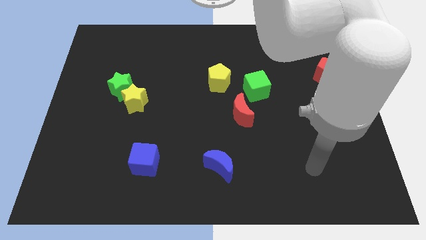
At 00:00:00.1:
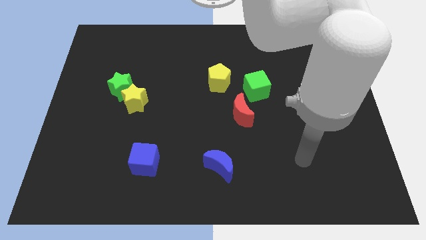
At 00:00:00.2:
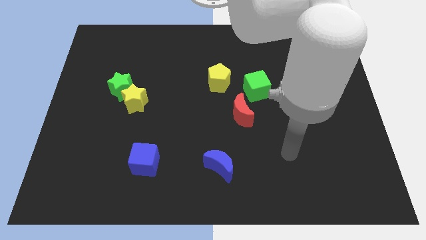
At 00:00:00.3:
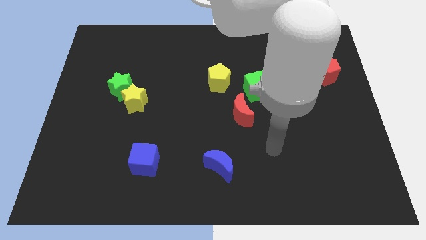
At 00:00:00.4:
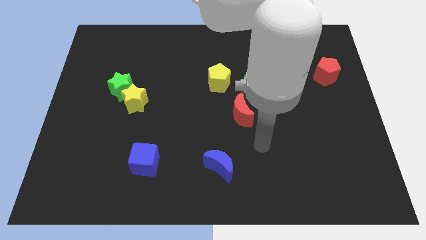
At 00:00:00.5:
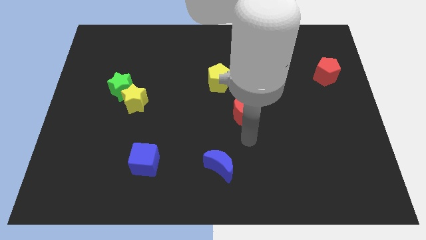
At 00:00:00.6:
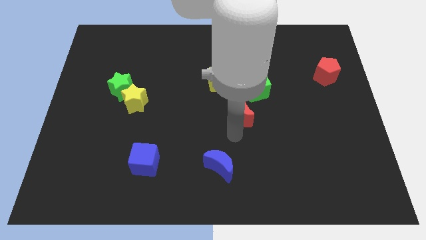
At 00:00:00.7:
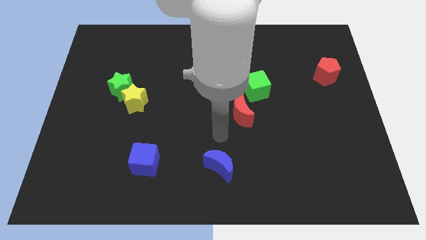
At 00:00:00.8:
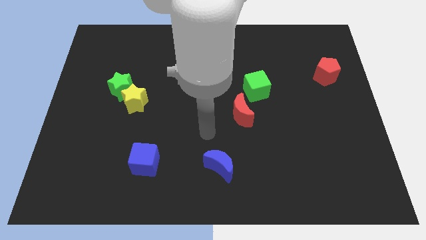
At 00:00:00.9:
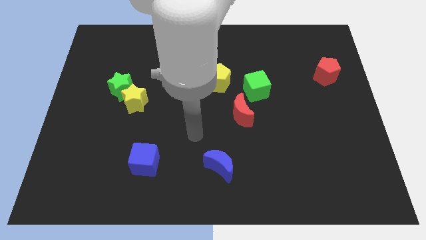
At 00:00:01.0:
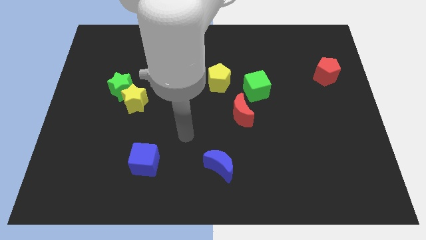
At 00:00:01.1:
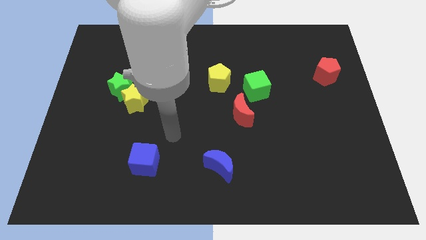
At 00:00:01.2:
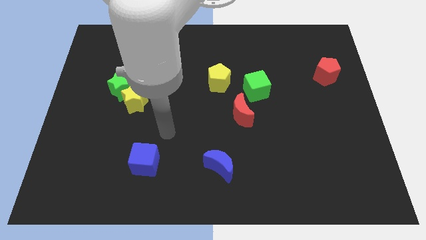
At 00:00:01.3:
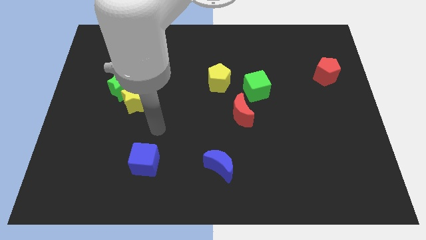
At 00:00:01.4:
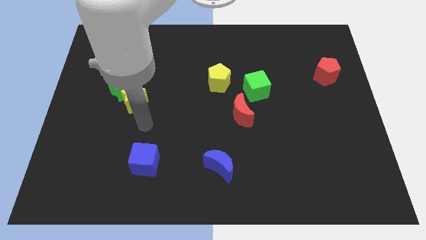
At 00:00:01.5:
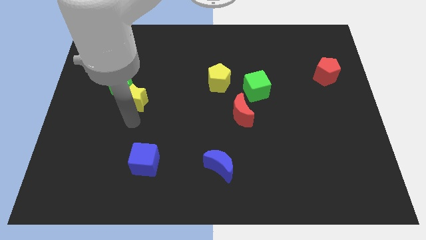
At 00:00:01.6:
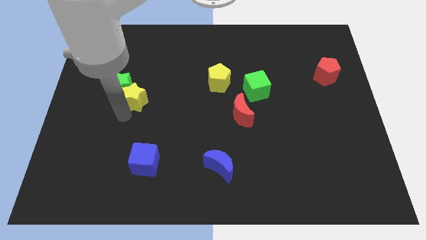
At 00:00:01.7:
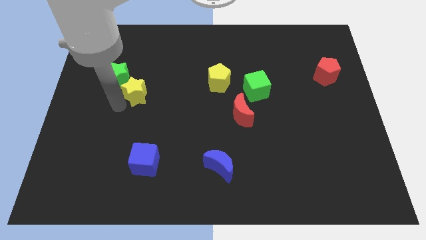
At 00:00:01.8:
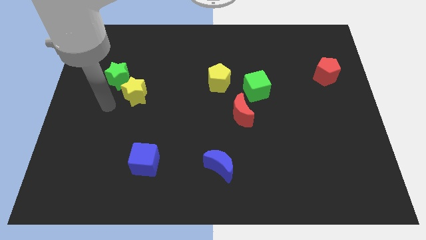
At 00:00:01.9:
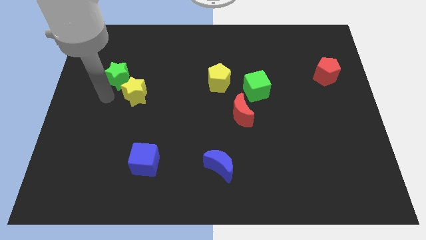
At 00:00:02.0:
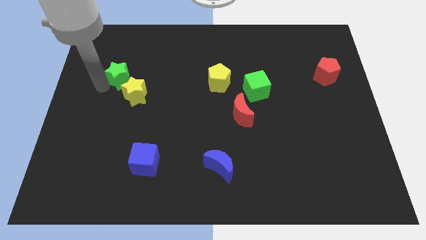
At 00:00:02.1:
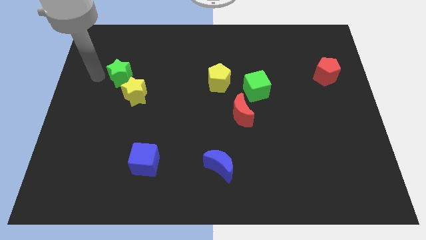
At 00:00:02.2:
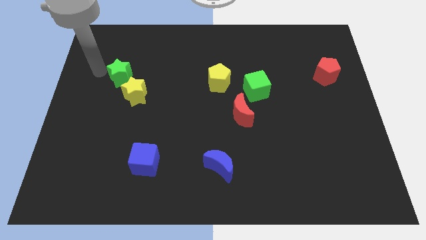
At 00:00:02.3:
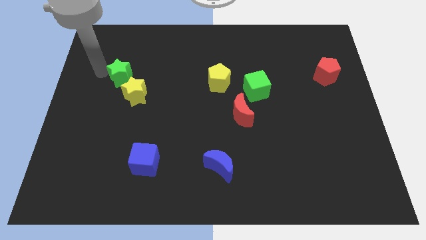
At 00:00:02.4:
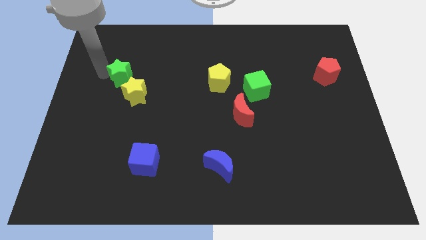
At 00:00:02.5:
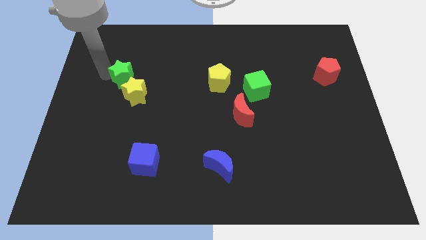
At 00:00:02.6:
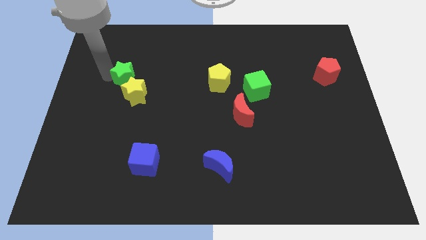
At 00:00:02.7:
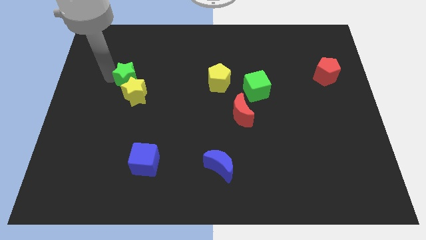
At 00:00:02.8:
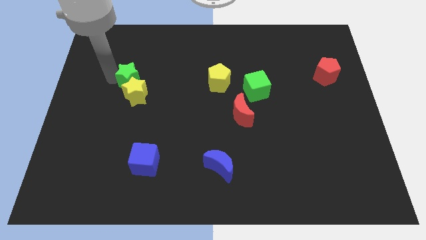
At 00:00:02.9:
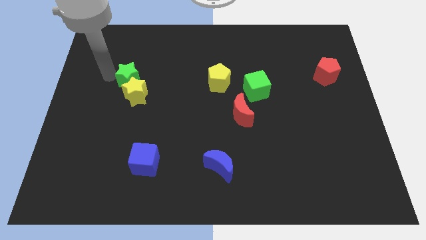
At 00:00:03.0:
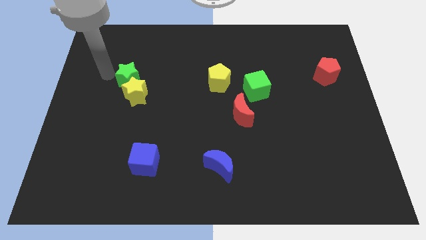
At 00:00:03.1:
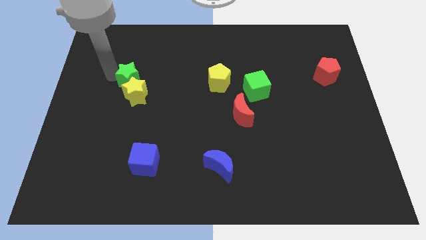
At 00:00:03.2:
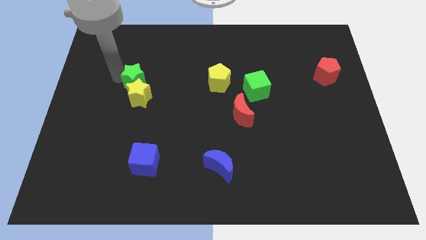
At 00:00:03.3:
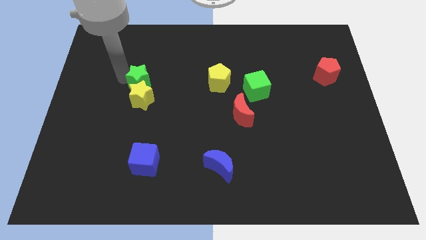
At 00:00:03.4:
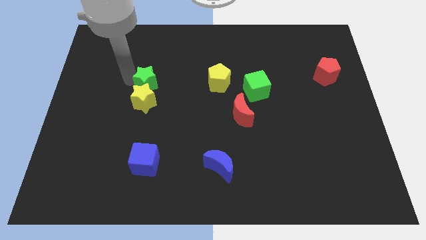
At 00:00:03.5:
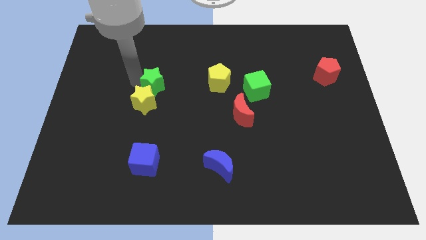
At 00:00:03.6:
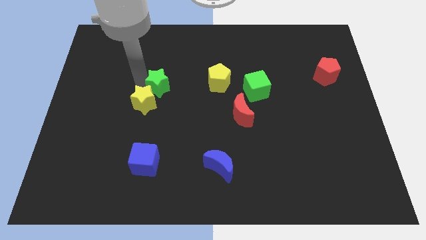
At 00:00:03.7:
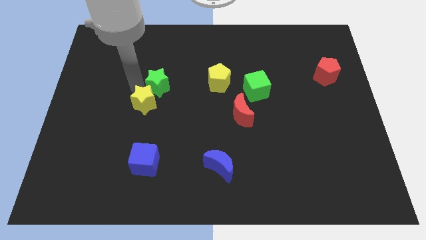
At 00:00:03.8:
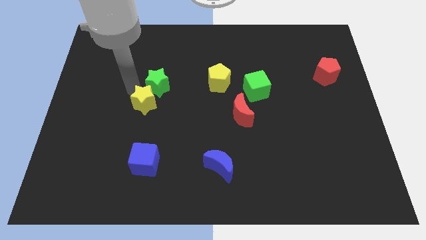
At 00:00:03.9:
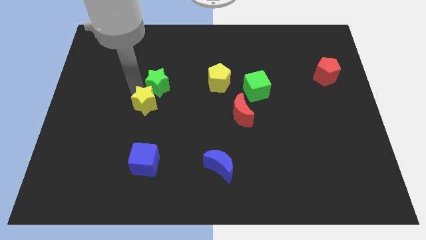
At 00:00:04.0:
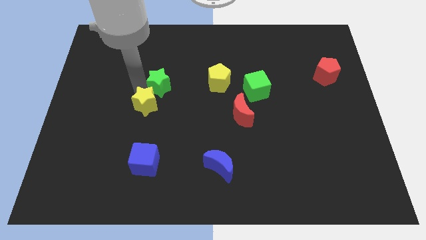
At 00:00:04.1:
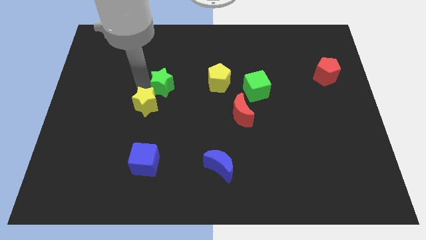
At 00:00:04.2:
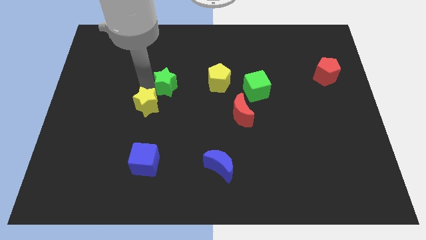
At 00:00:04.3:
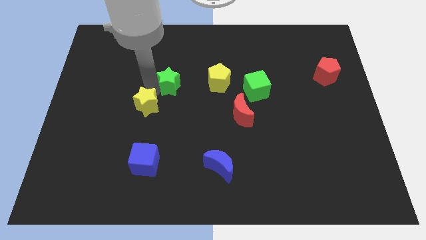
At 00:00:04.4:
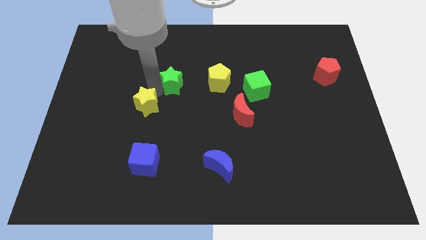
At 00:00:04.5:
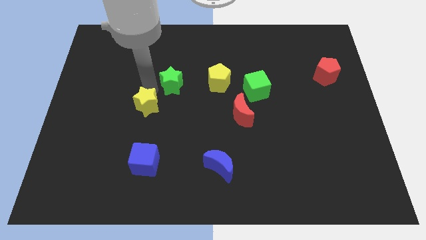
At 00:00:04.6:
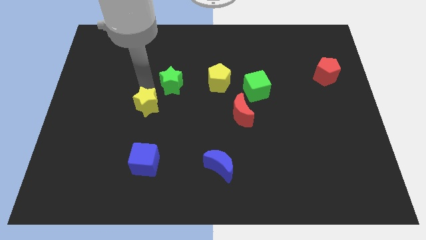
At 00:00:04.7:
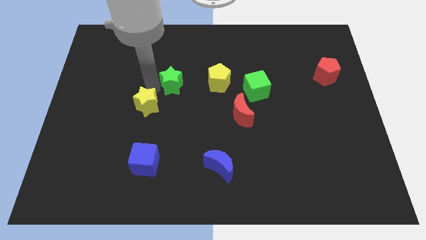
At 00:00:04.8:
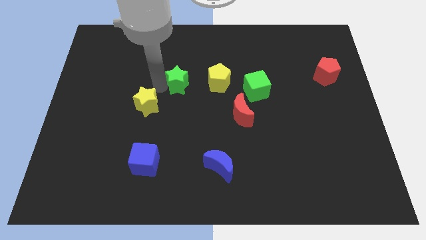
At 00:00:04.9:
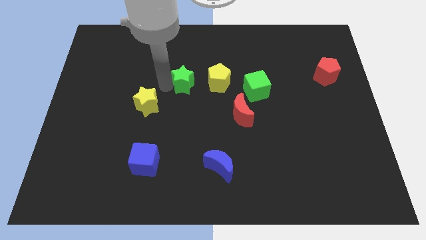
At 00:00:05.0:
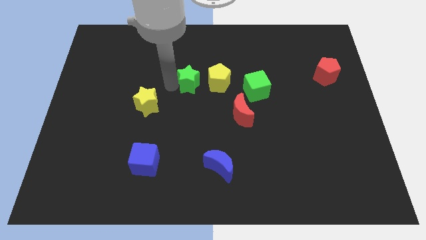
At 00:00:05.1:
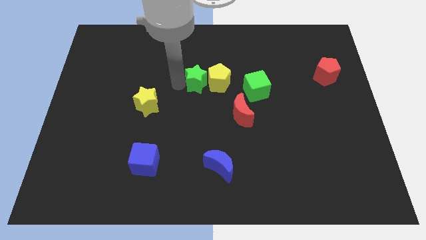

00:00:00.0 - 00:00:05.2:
push the green star close to the yellow pentagon

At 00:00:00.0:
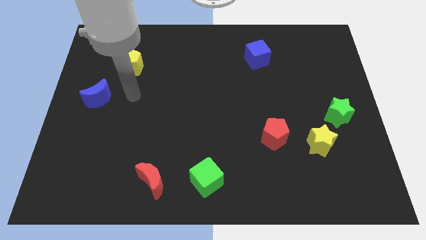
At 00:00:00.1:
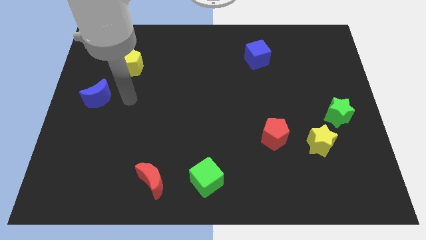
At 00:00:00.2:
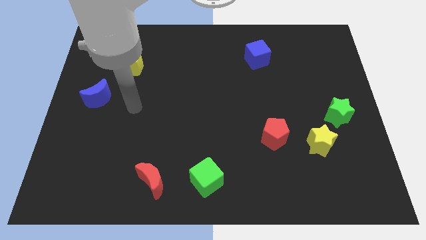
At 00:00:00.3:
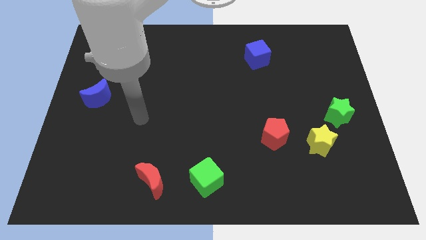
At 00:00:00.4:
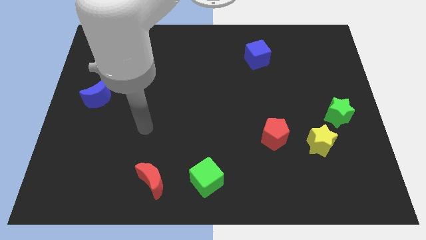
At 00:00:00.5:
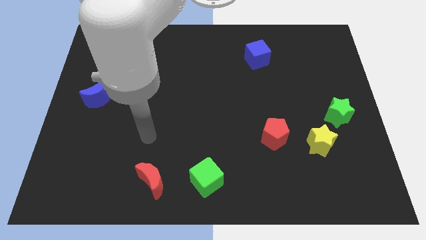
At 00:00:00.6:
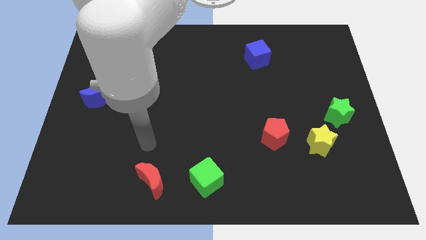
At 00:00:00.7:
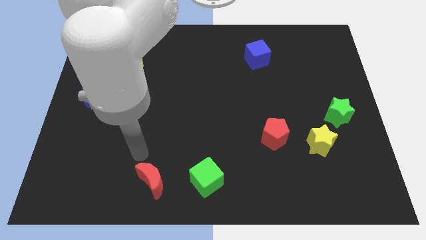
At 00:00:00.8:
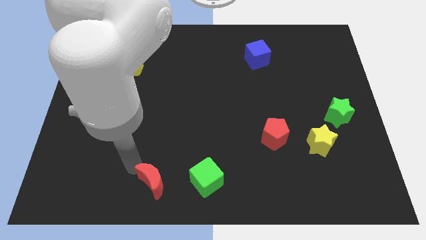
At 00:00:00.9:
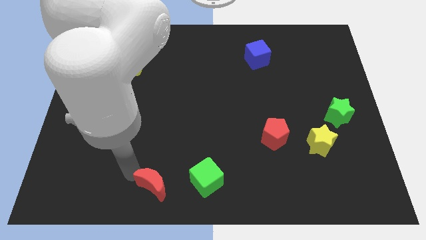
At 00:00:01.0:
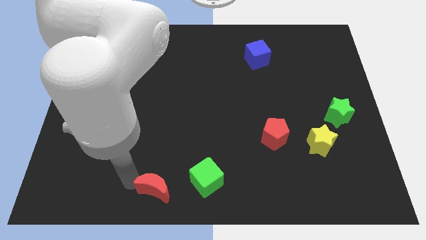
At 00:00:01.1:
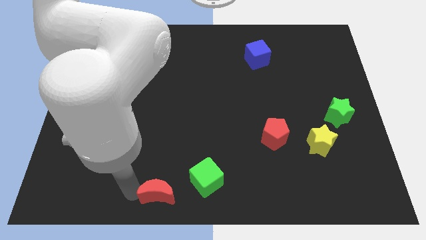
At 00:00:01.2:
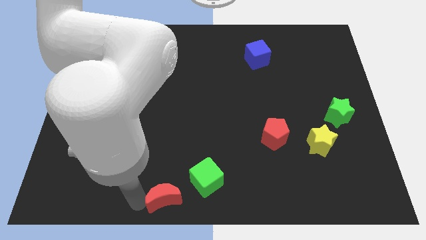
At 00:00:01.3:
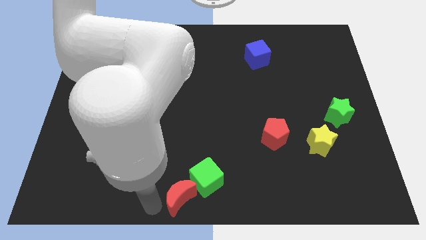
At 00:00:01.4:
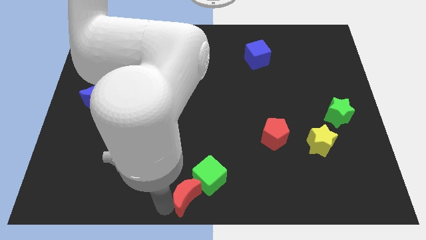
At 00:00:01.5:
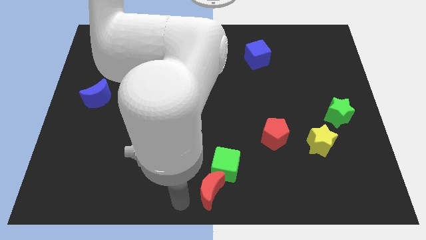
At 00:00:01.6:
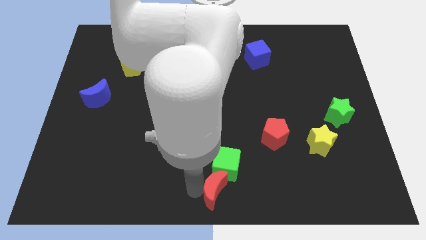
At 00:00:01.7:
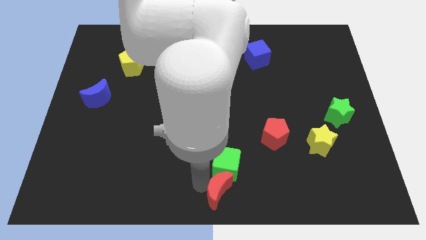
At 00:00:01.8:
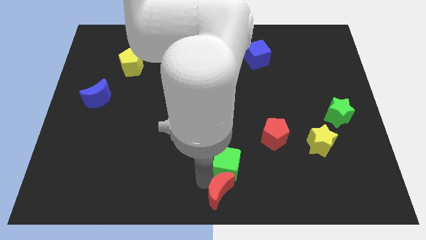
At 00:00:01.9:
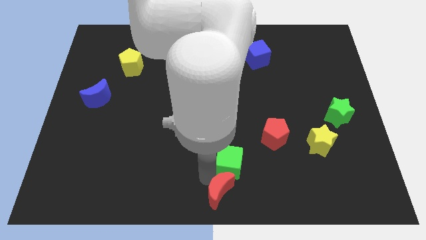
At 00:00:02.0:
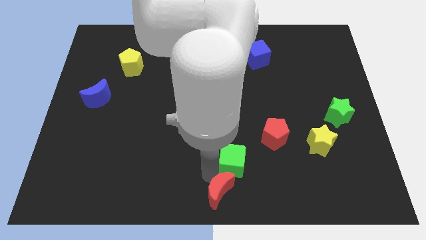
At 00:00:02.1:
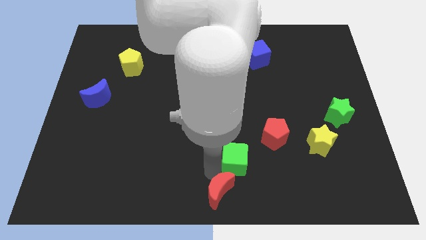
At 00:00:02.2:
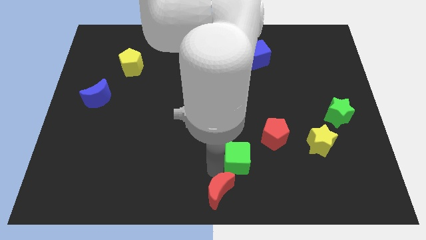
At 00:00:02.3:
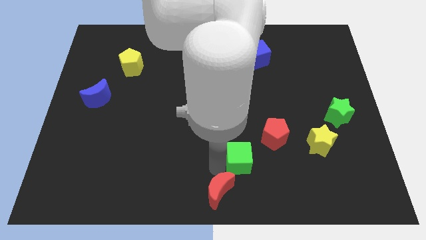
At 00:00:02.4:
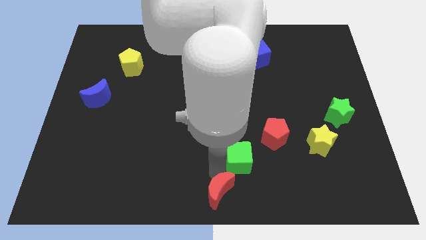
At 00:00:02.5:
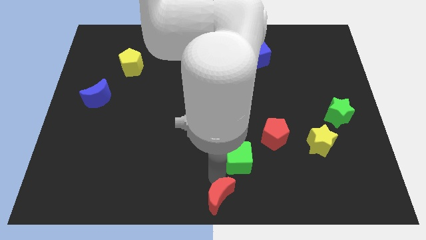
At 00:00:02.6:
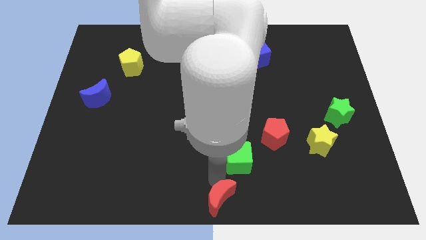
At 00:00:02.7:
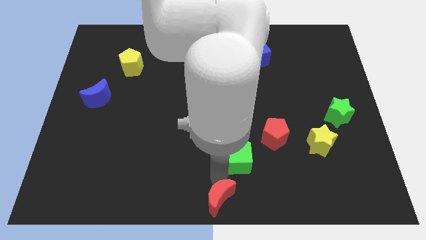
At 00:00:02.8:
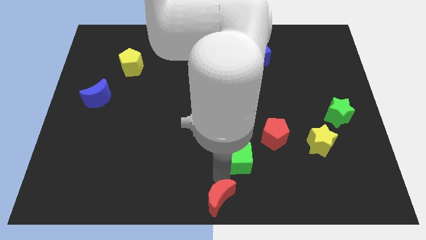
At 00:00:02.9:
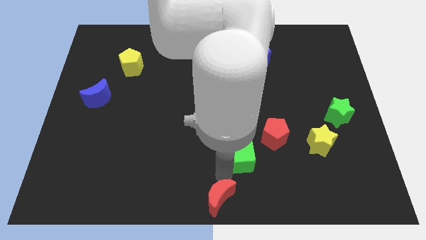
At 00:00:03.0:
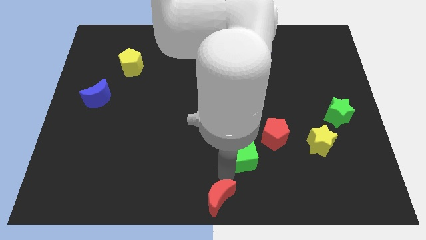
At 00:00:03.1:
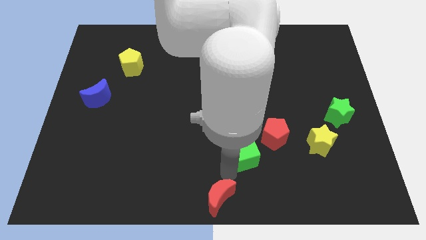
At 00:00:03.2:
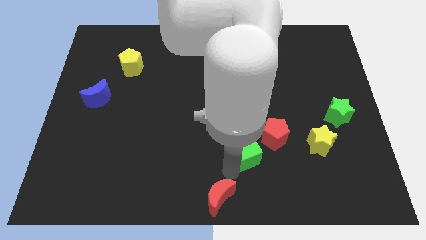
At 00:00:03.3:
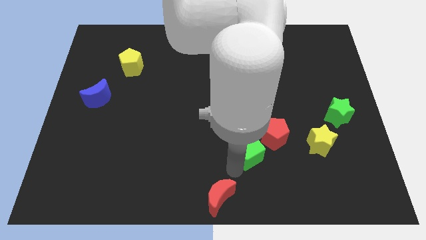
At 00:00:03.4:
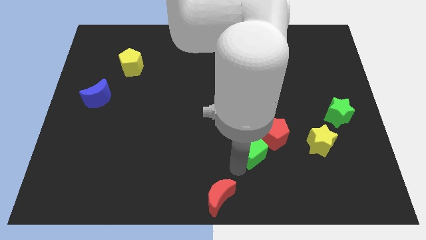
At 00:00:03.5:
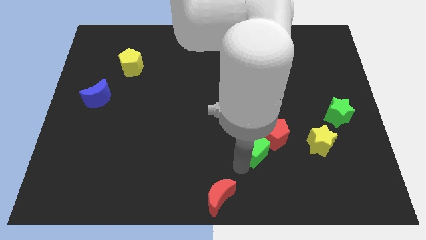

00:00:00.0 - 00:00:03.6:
put the green cube next to the red pentagon
